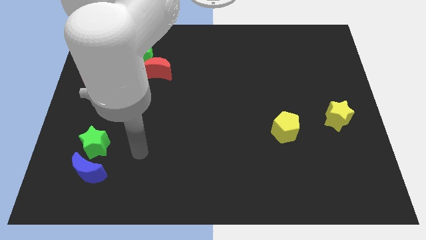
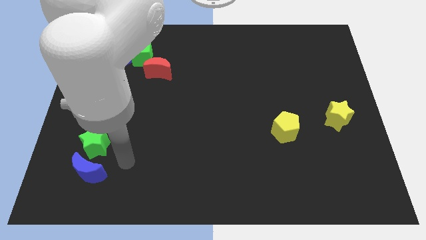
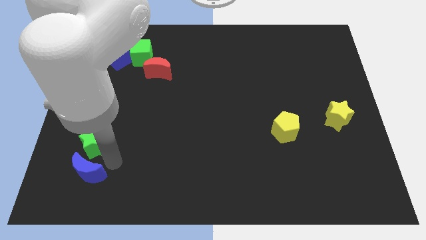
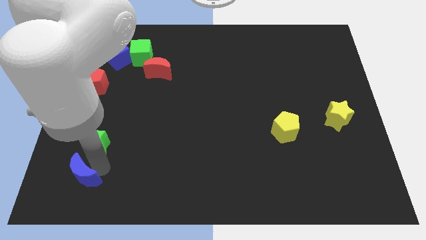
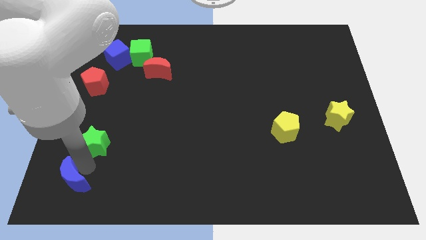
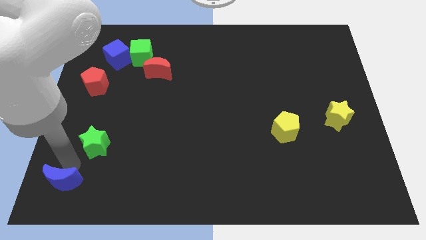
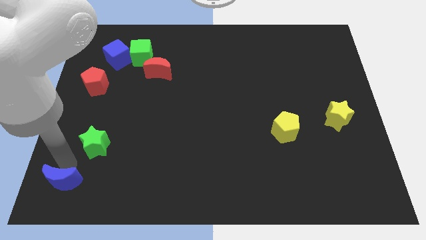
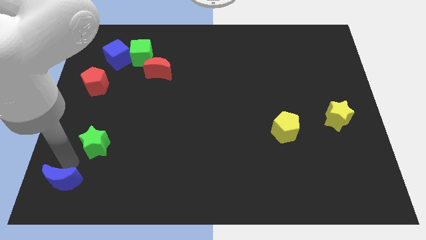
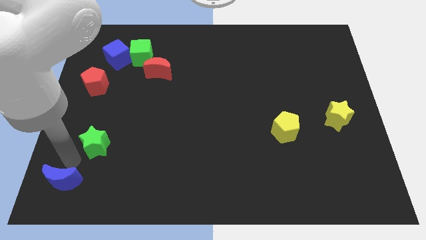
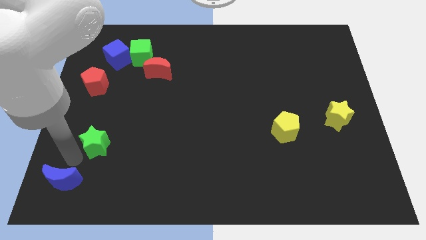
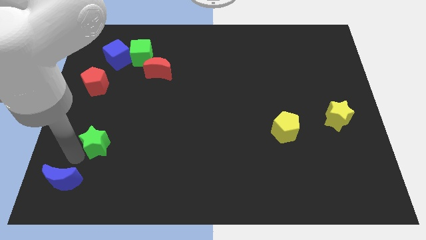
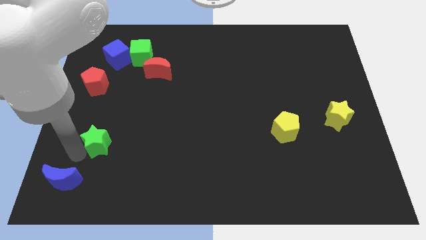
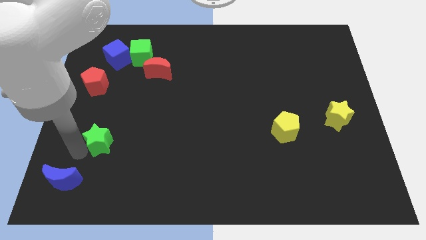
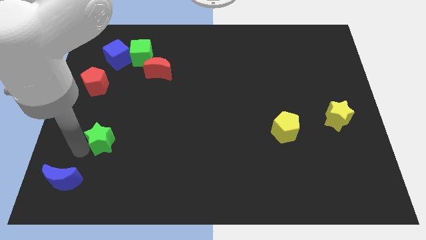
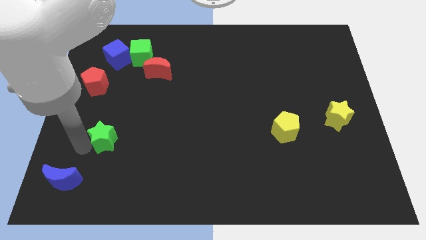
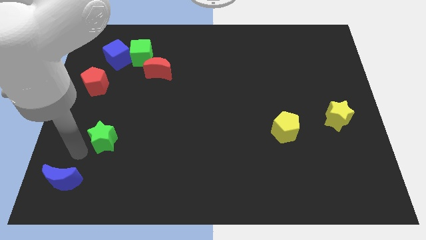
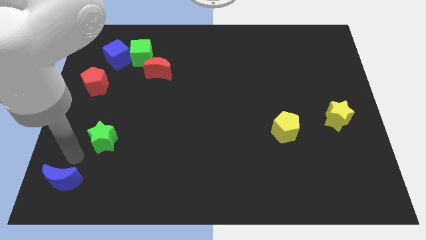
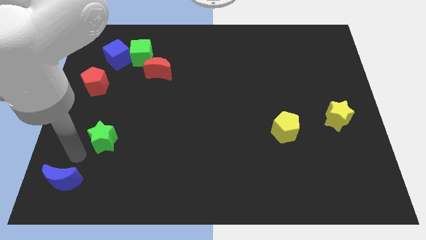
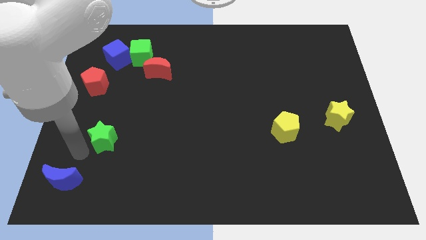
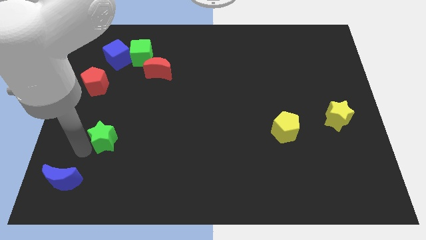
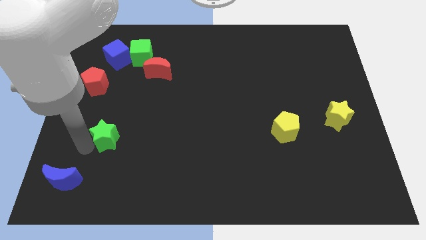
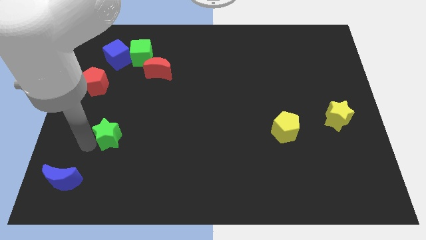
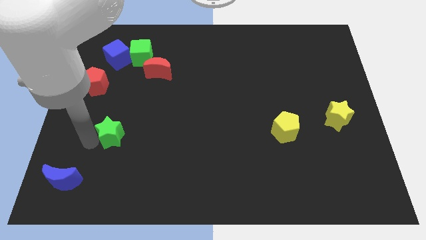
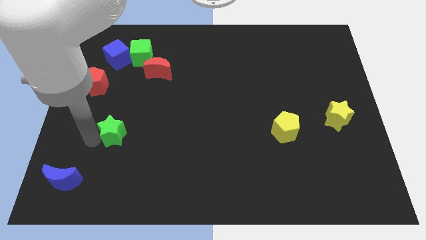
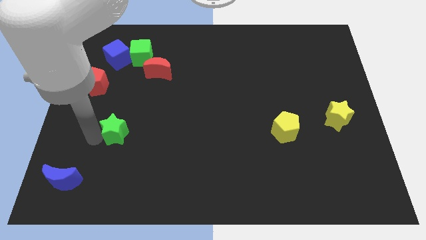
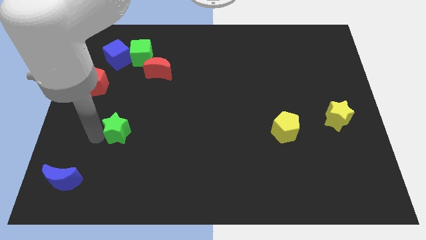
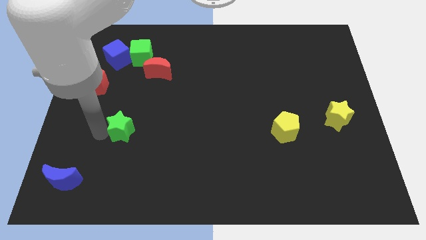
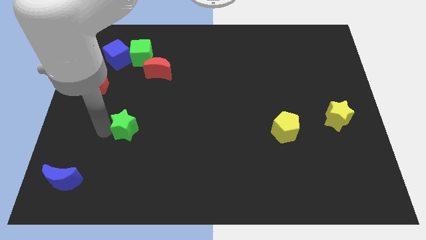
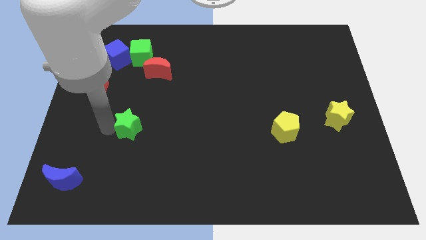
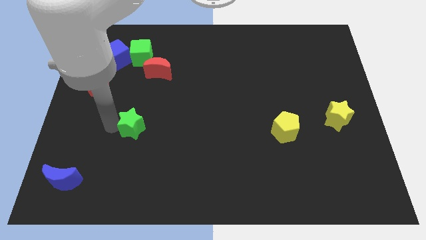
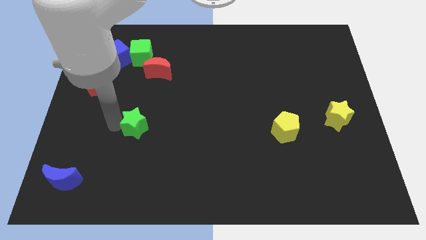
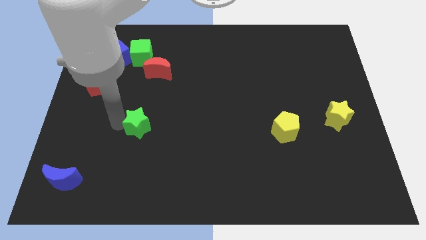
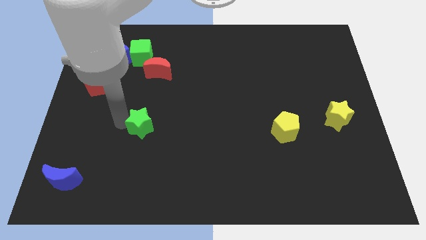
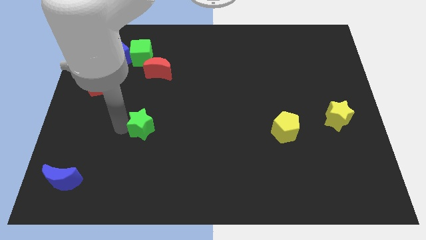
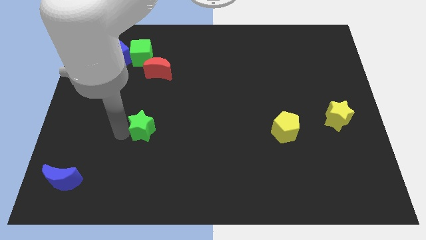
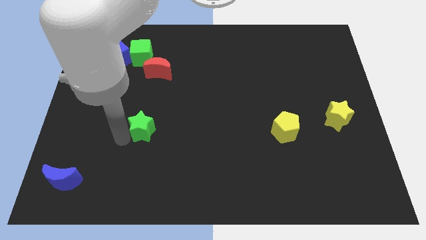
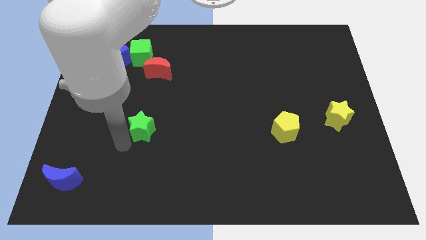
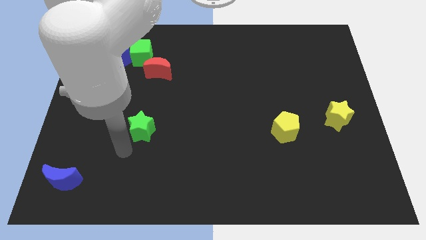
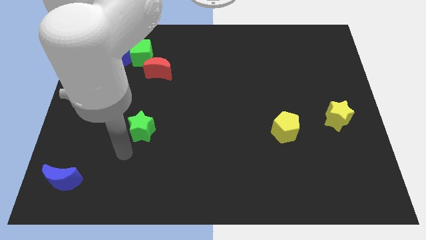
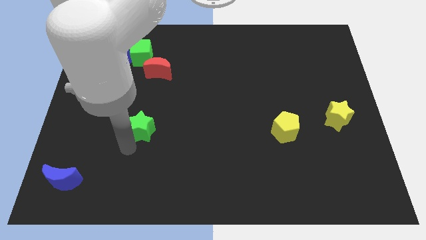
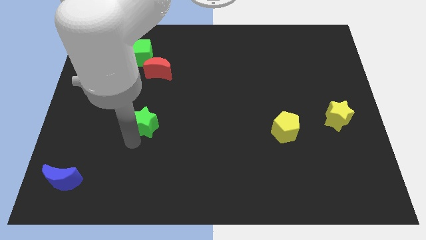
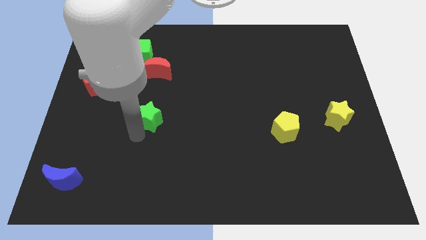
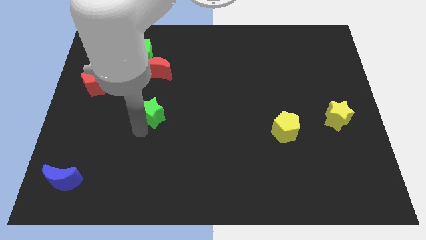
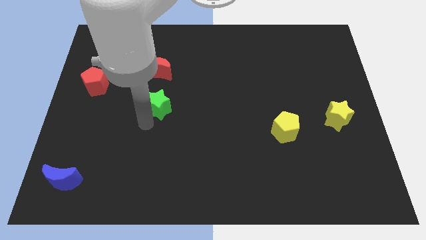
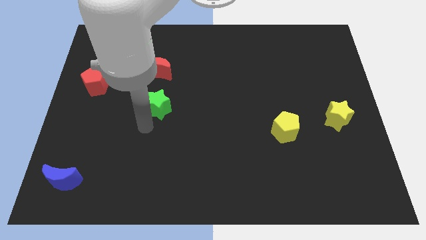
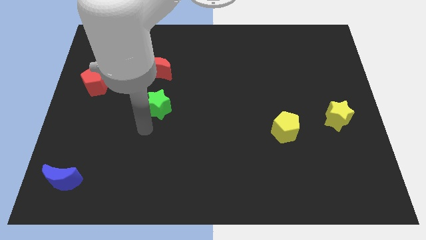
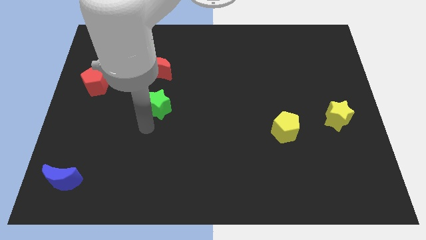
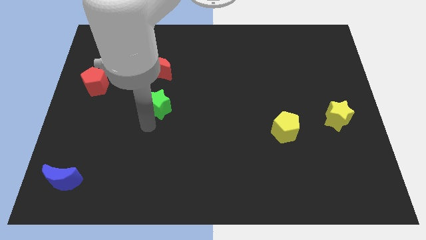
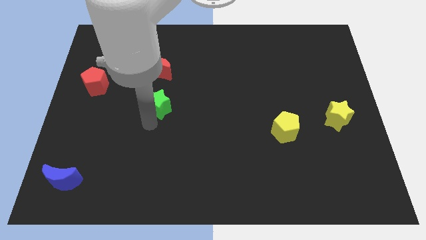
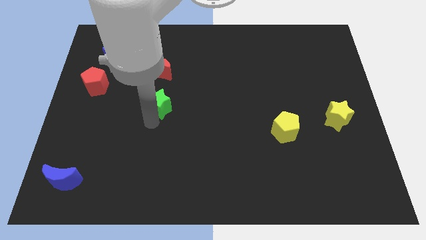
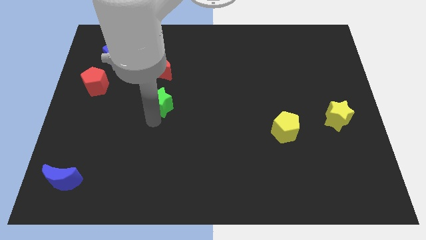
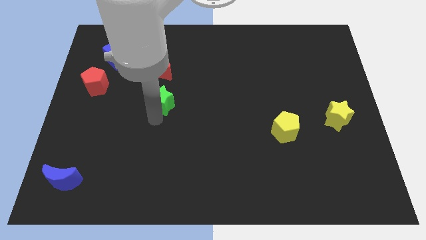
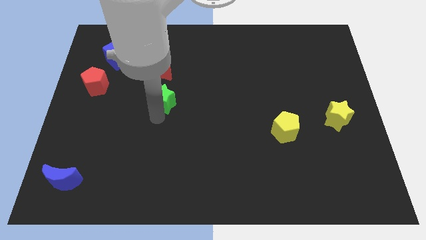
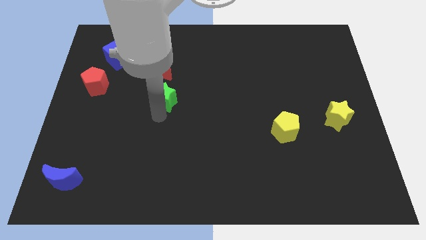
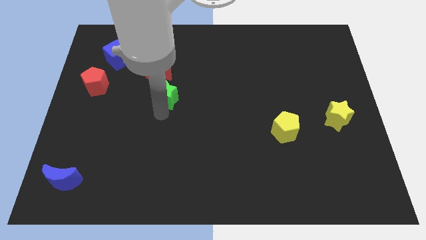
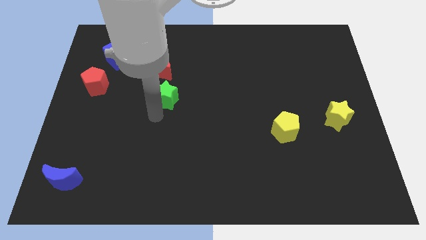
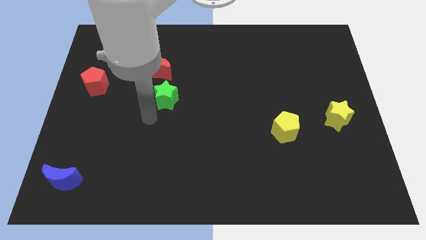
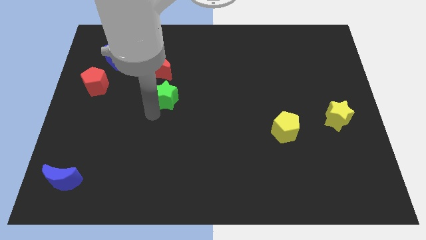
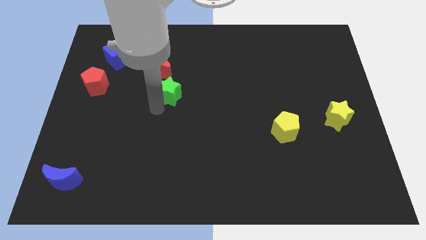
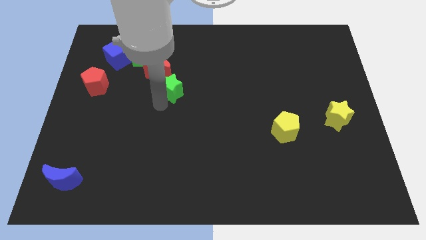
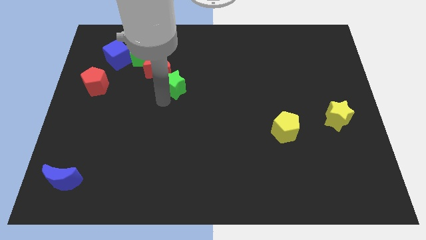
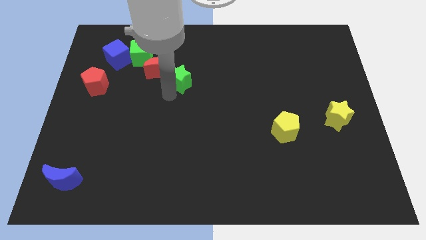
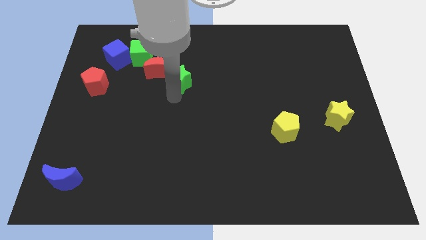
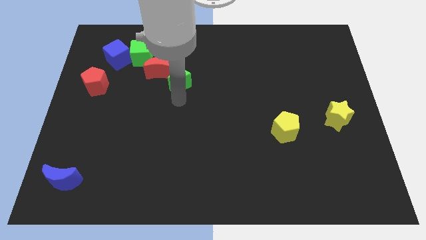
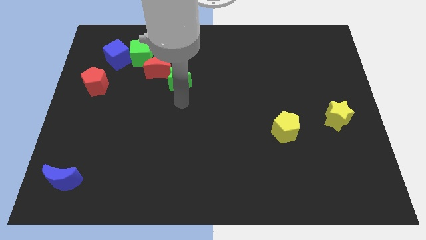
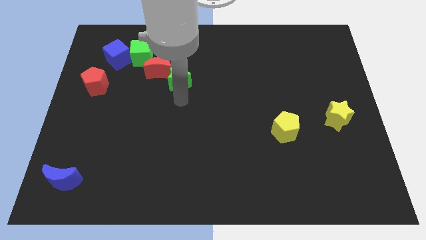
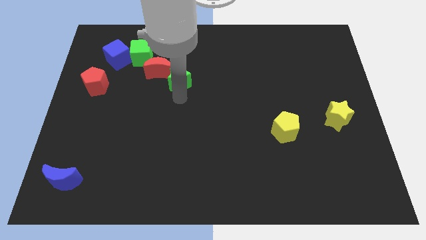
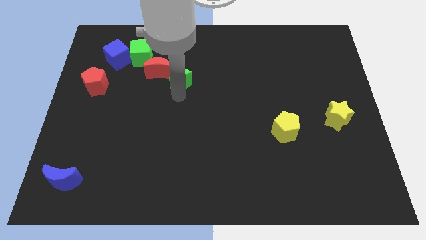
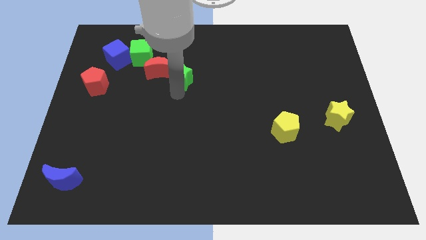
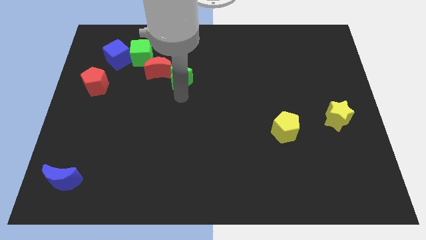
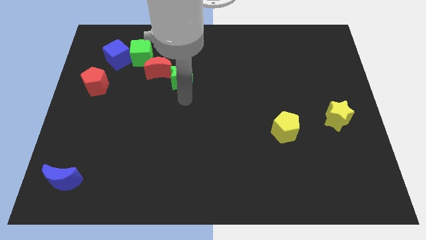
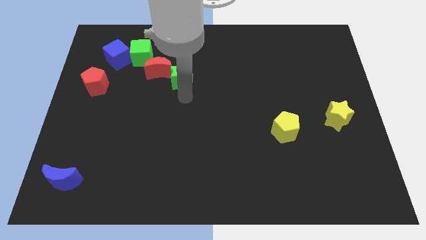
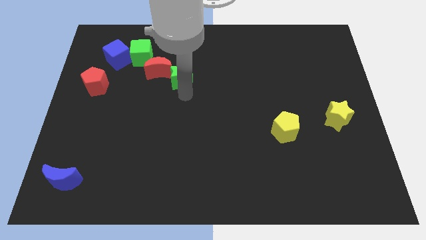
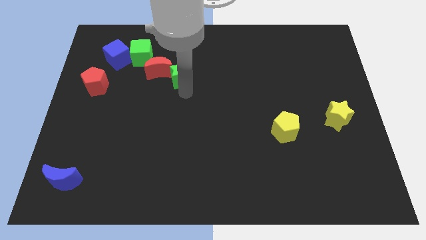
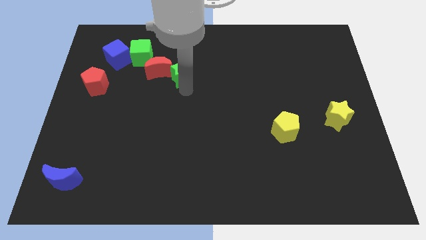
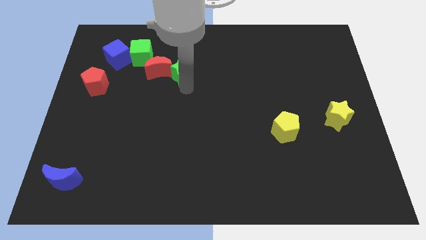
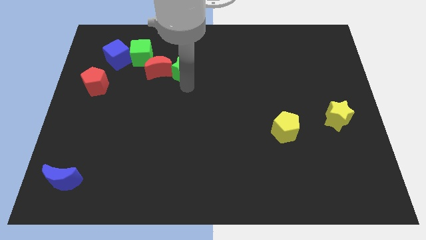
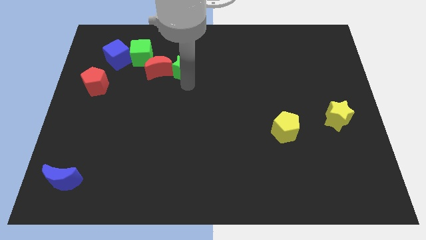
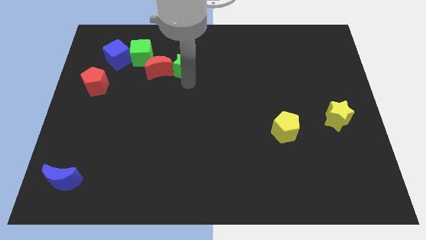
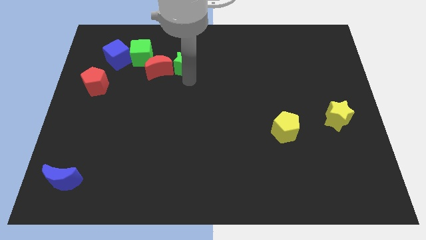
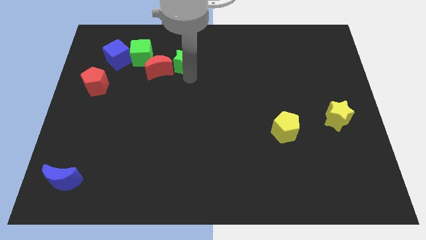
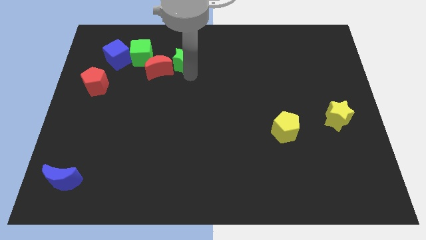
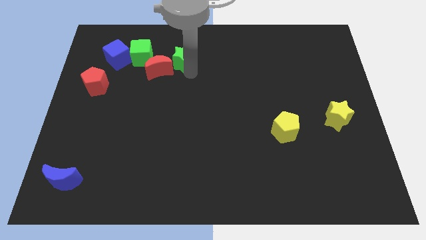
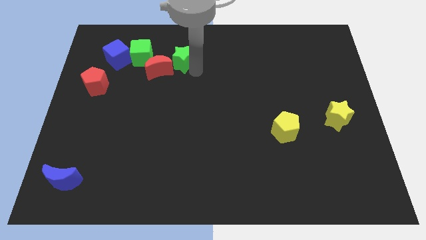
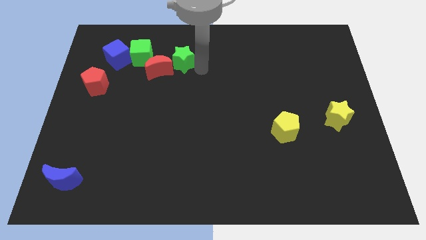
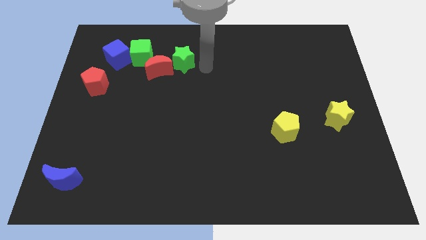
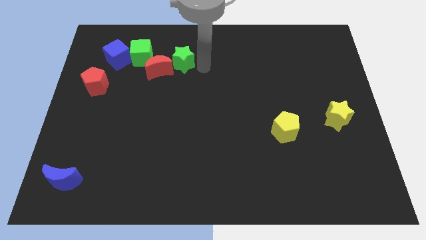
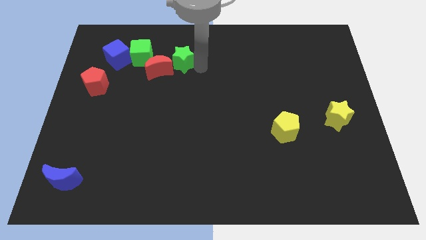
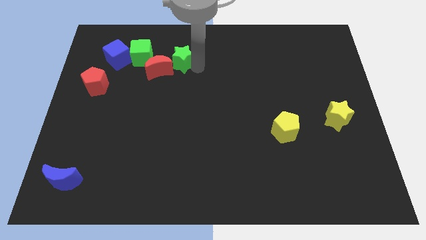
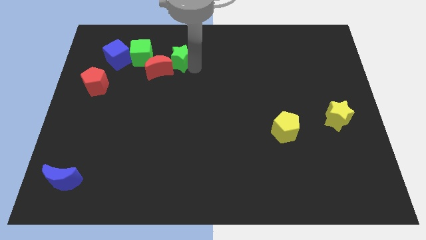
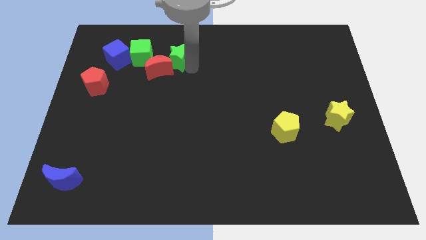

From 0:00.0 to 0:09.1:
put the green star just right of the blue cube
